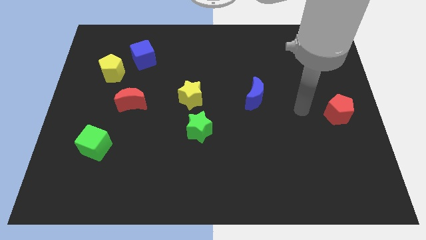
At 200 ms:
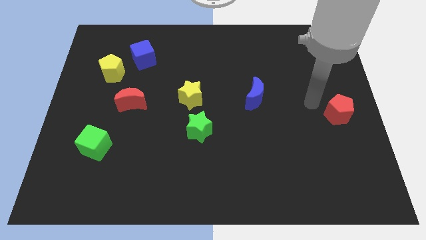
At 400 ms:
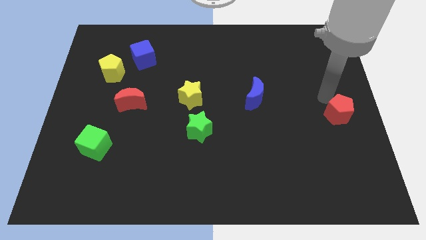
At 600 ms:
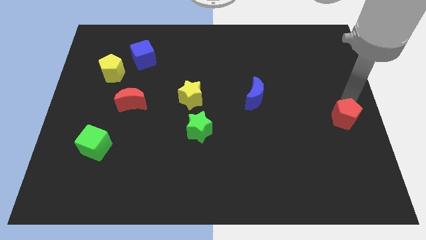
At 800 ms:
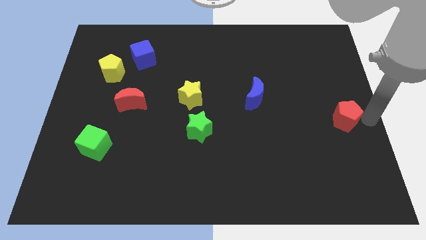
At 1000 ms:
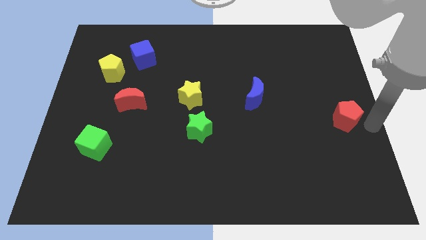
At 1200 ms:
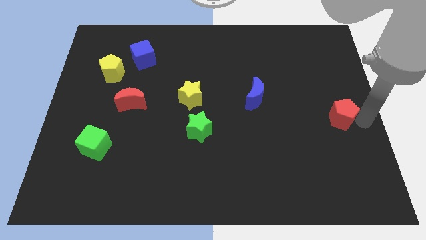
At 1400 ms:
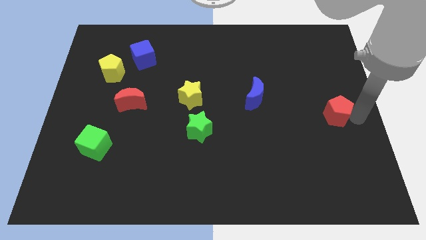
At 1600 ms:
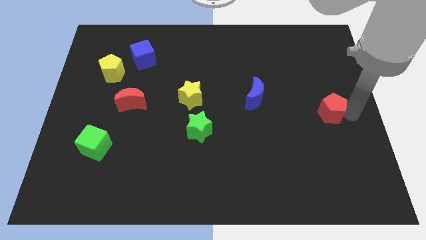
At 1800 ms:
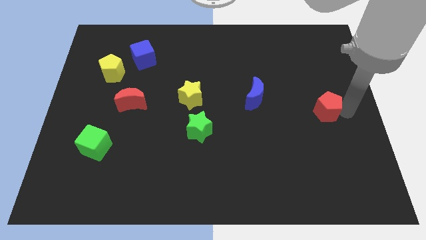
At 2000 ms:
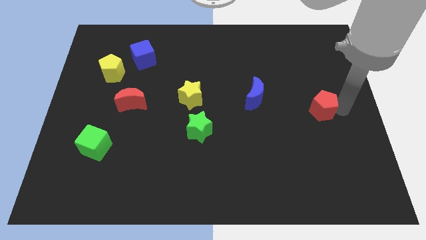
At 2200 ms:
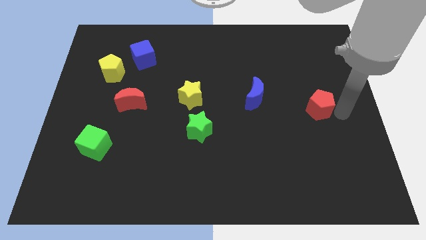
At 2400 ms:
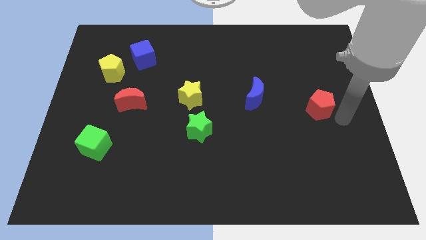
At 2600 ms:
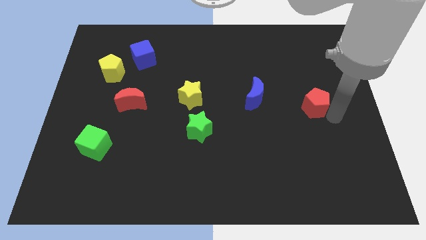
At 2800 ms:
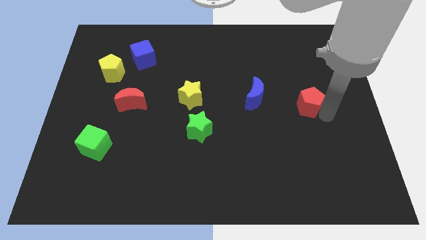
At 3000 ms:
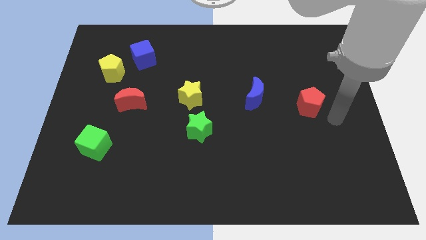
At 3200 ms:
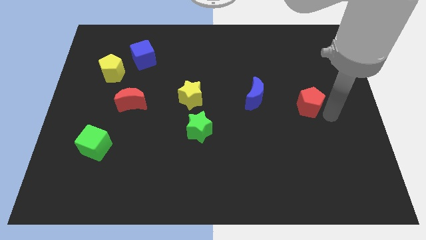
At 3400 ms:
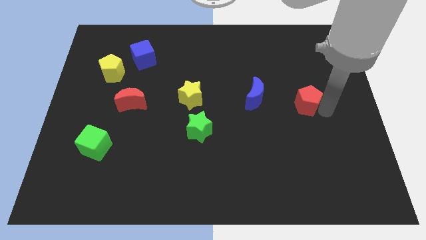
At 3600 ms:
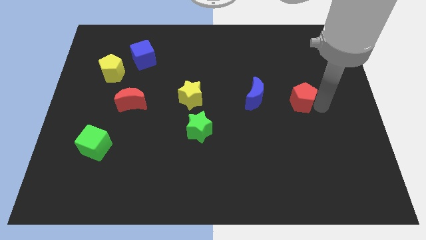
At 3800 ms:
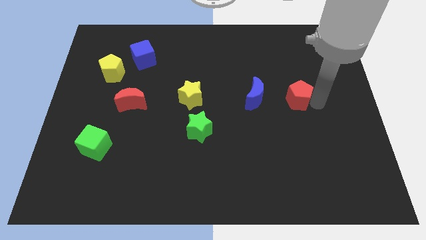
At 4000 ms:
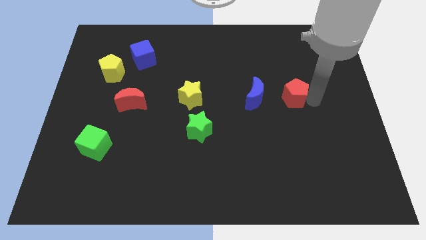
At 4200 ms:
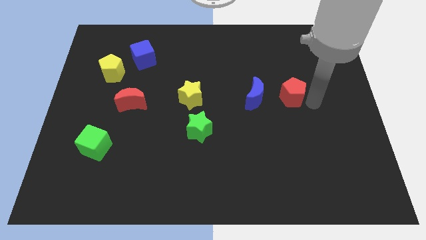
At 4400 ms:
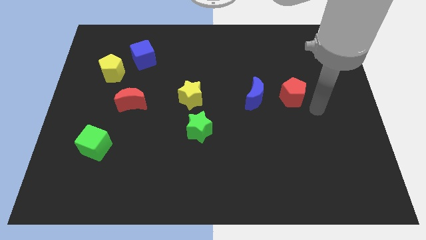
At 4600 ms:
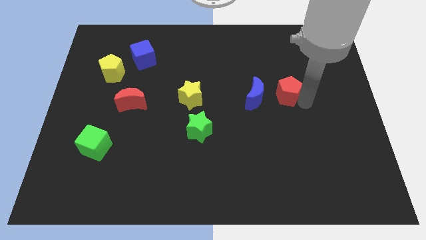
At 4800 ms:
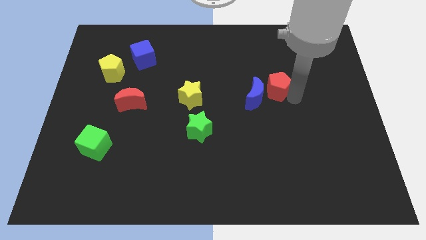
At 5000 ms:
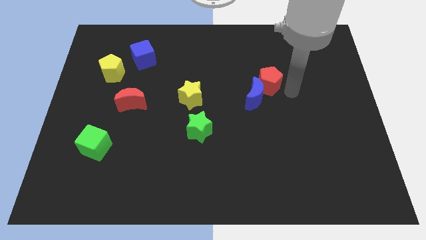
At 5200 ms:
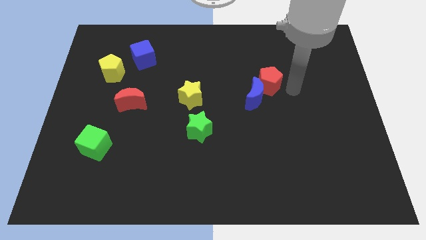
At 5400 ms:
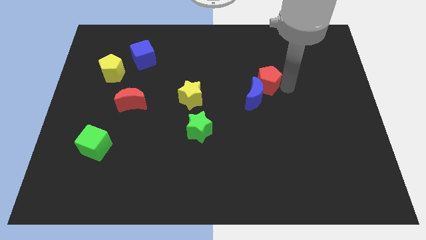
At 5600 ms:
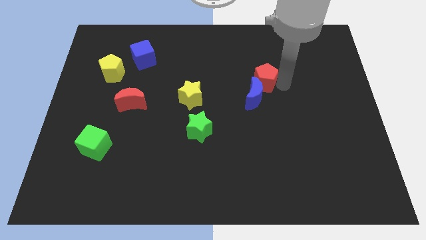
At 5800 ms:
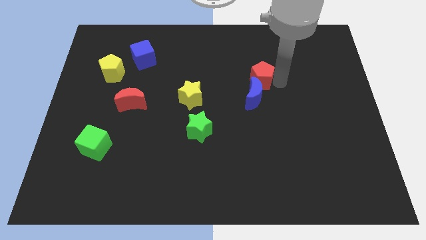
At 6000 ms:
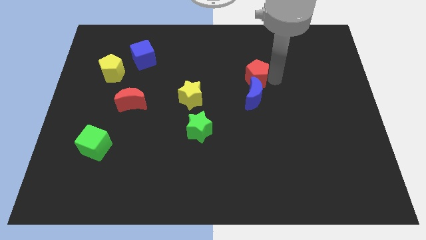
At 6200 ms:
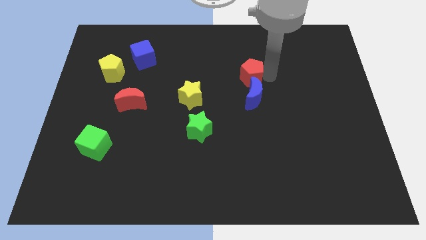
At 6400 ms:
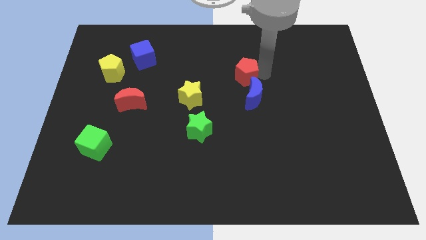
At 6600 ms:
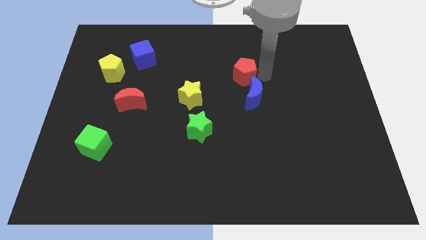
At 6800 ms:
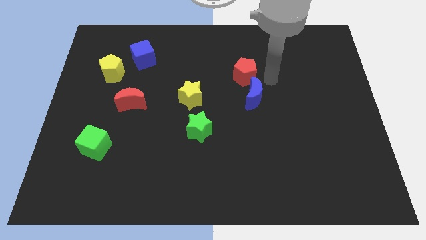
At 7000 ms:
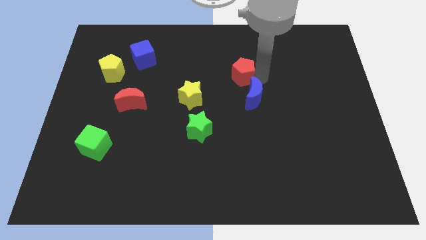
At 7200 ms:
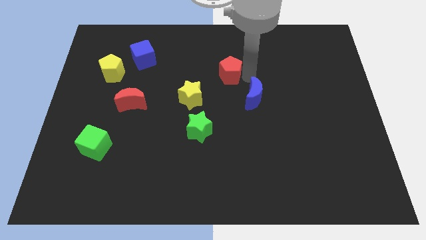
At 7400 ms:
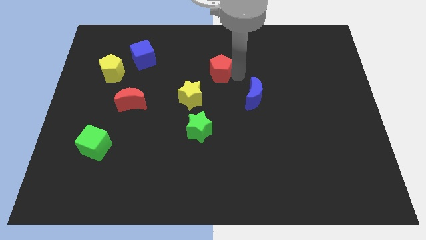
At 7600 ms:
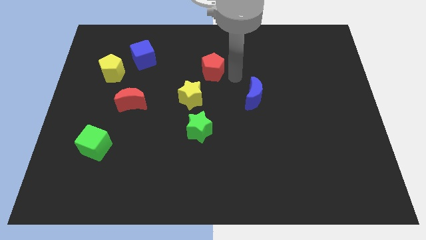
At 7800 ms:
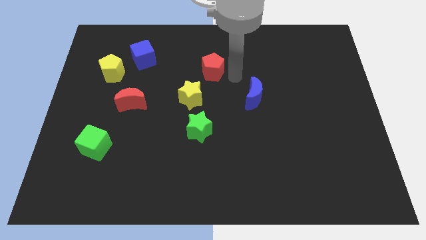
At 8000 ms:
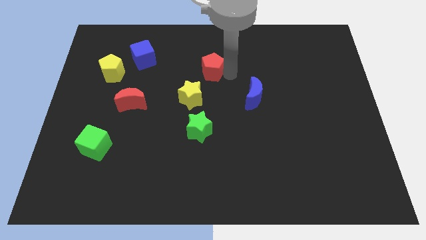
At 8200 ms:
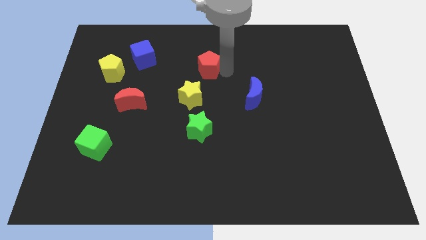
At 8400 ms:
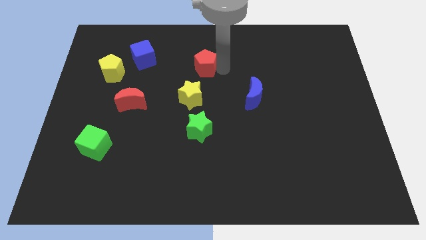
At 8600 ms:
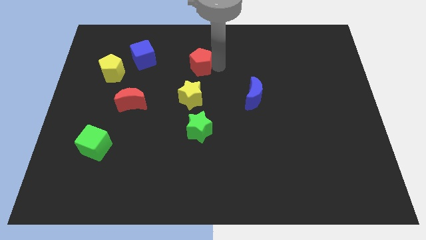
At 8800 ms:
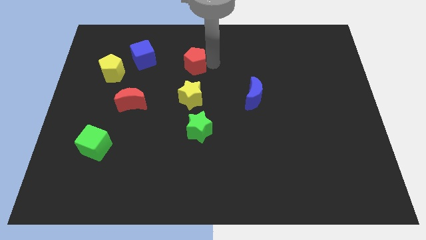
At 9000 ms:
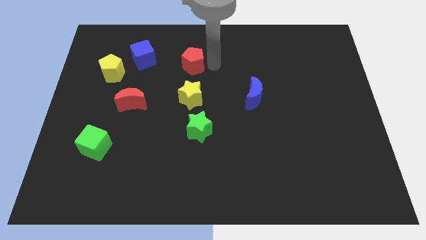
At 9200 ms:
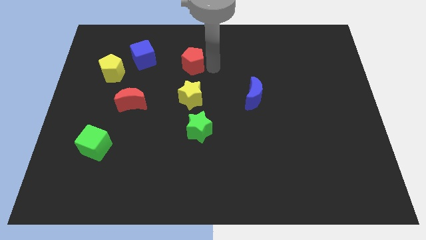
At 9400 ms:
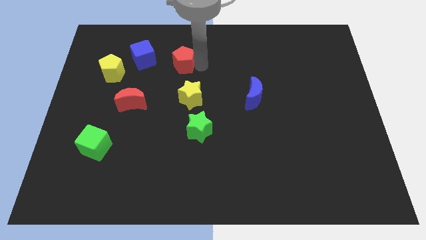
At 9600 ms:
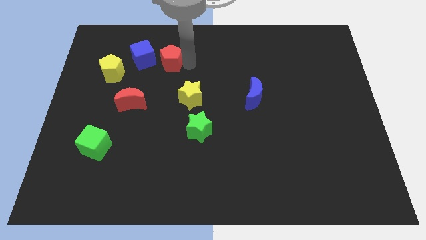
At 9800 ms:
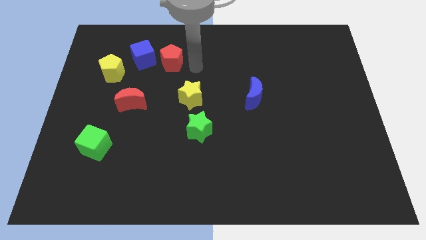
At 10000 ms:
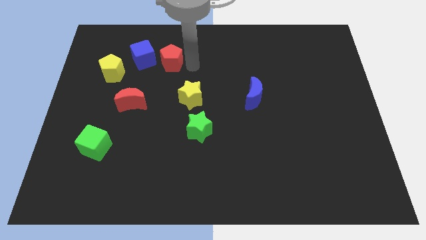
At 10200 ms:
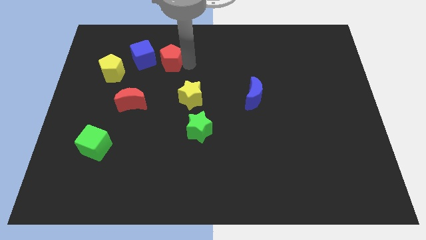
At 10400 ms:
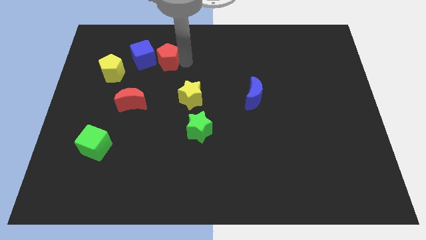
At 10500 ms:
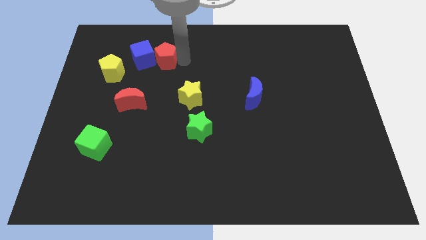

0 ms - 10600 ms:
move the red pentagon next to the blue cube

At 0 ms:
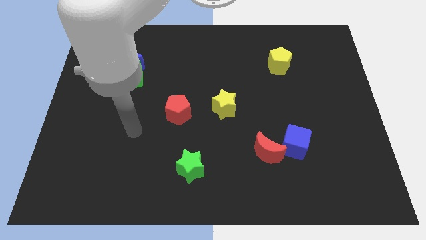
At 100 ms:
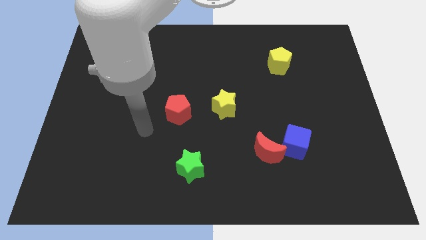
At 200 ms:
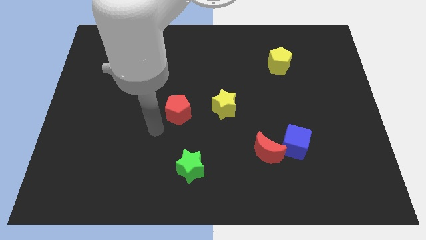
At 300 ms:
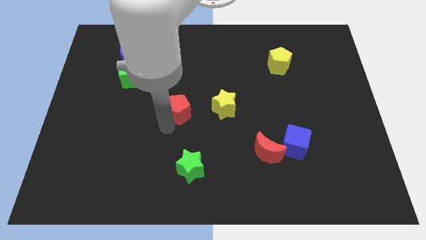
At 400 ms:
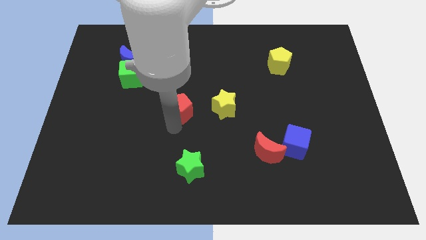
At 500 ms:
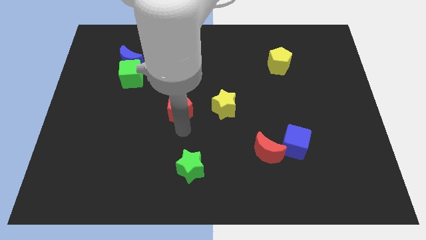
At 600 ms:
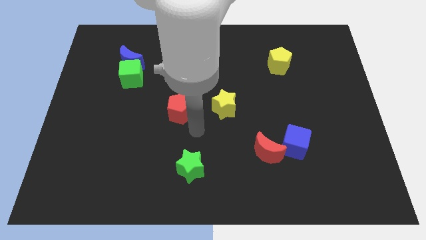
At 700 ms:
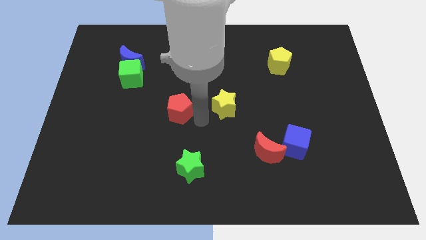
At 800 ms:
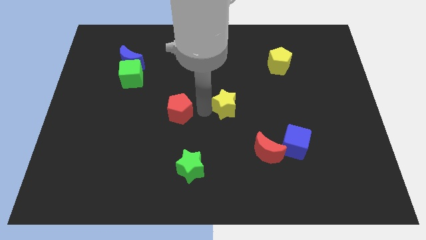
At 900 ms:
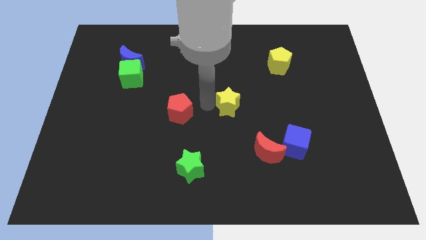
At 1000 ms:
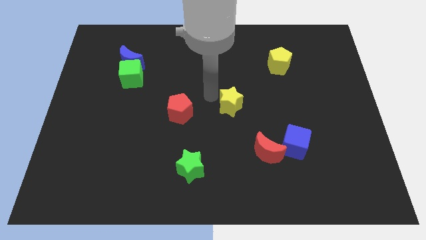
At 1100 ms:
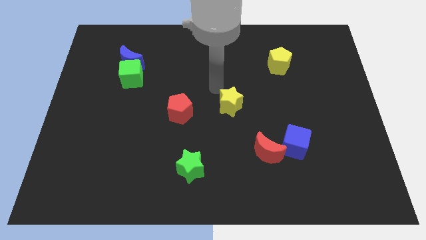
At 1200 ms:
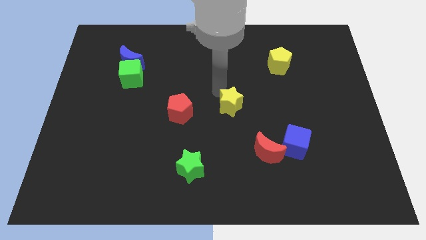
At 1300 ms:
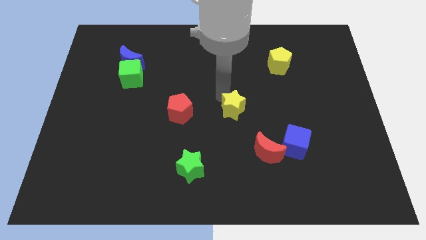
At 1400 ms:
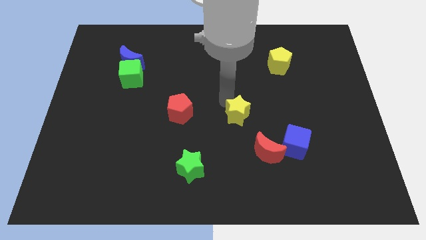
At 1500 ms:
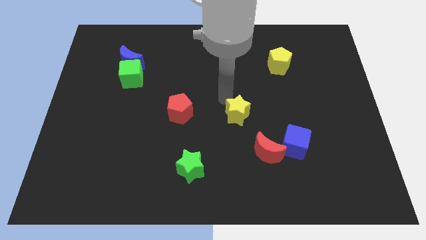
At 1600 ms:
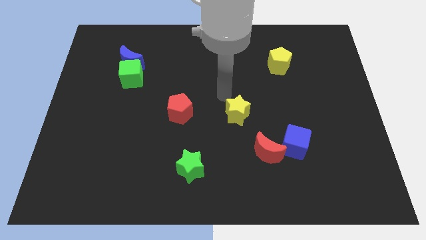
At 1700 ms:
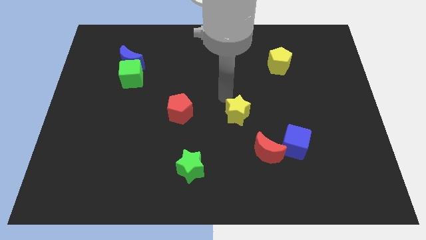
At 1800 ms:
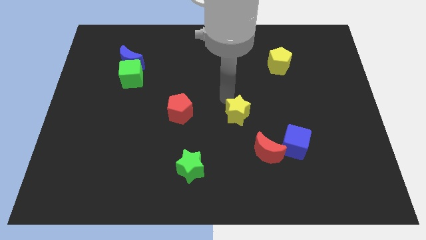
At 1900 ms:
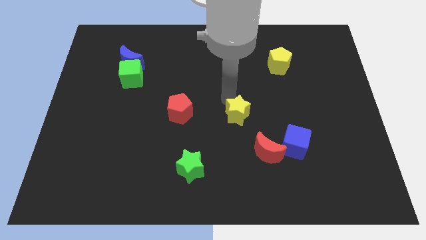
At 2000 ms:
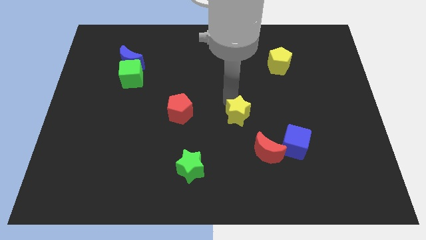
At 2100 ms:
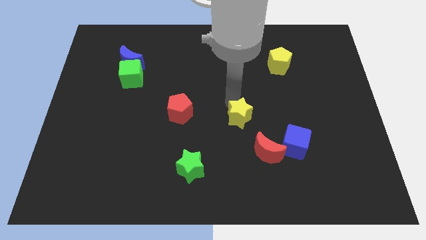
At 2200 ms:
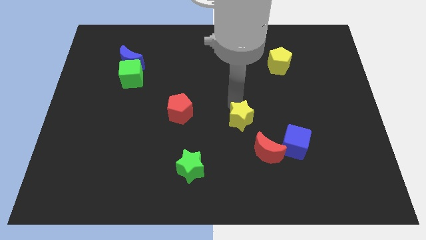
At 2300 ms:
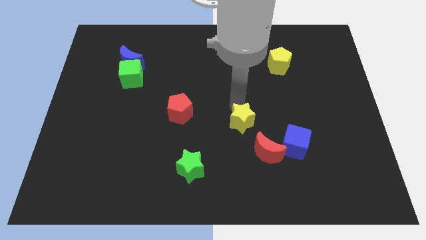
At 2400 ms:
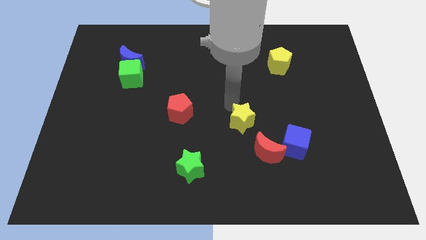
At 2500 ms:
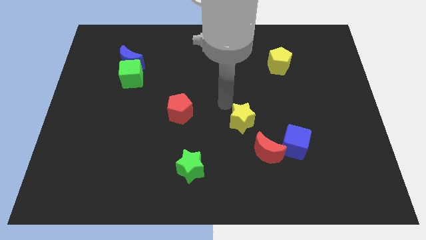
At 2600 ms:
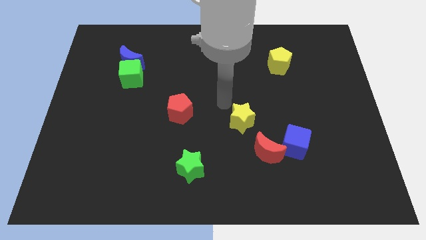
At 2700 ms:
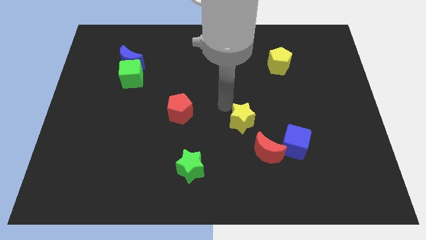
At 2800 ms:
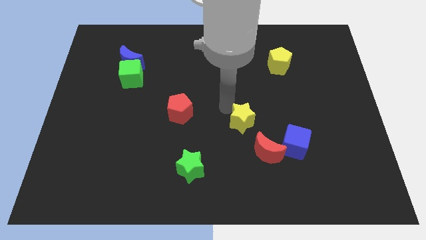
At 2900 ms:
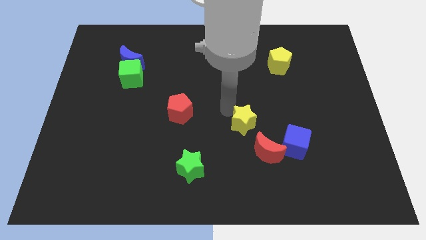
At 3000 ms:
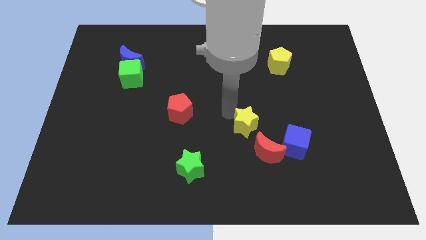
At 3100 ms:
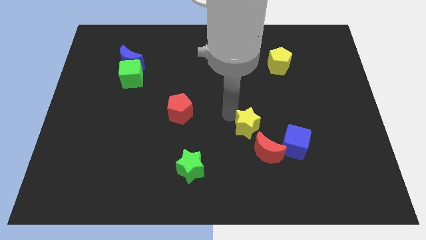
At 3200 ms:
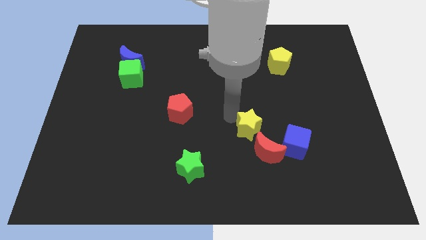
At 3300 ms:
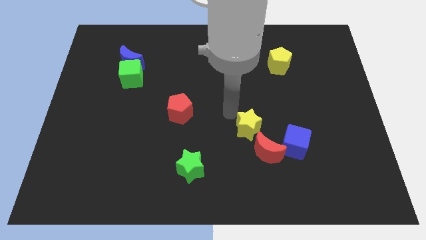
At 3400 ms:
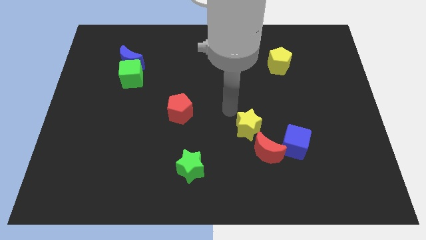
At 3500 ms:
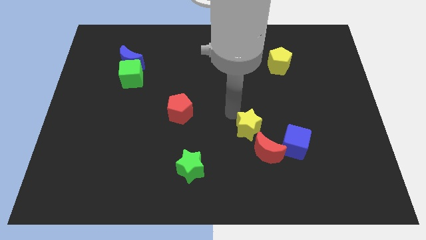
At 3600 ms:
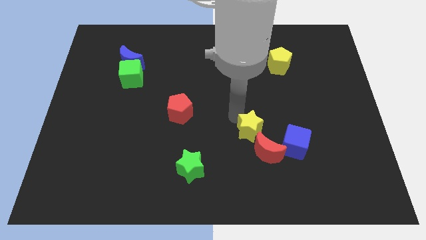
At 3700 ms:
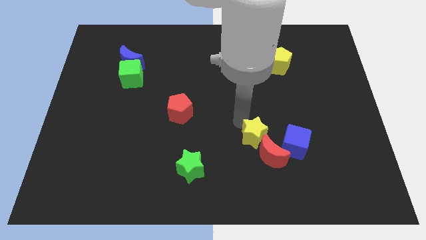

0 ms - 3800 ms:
put the yellow star to the red moon
